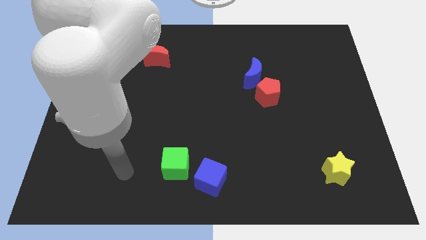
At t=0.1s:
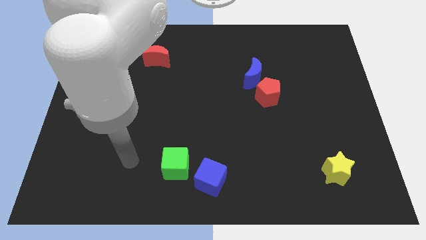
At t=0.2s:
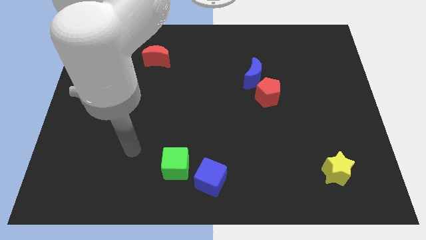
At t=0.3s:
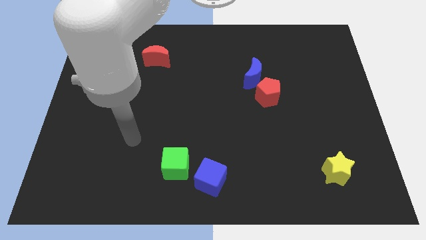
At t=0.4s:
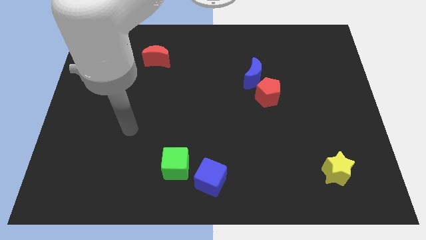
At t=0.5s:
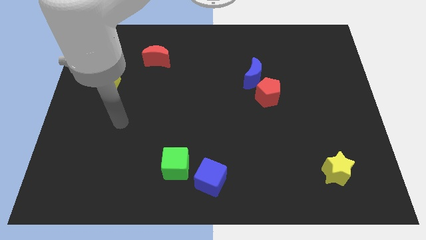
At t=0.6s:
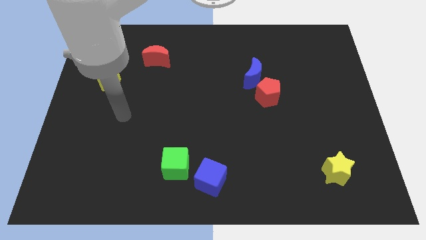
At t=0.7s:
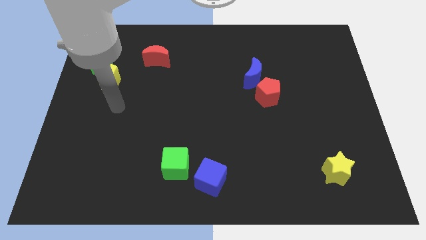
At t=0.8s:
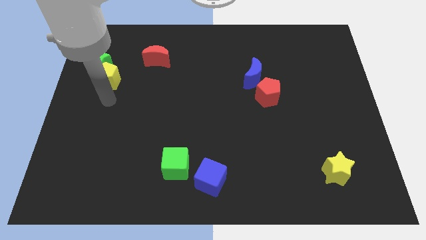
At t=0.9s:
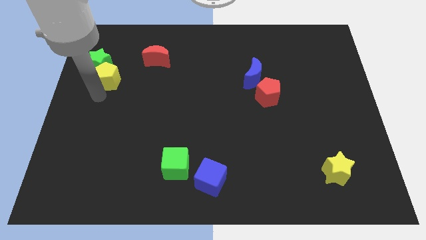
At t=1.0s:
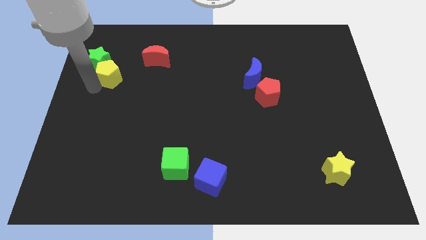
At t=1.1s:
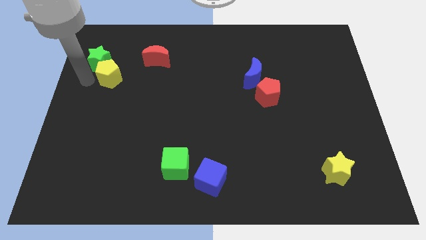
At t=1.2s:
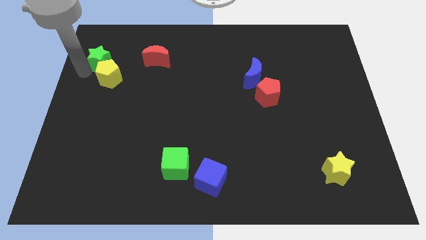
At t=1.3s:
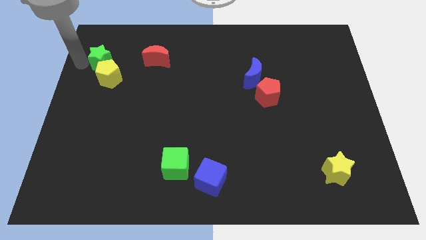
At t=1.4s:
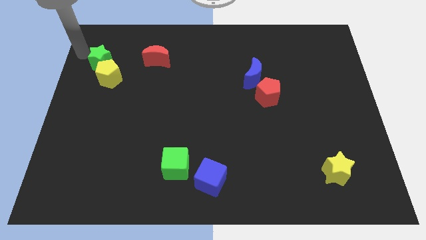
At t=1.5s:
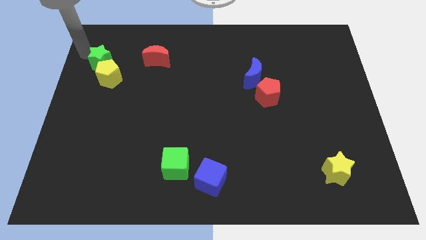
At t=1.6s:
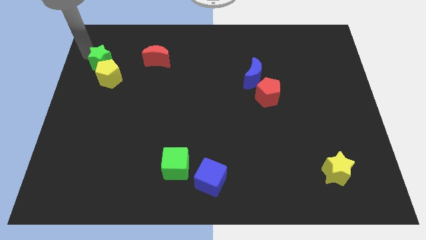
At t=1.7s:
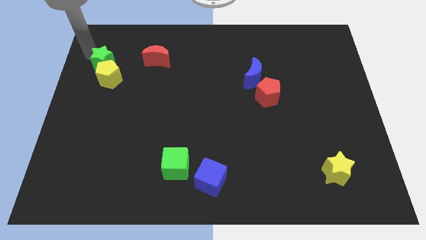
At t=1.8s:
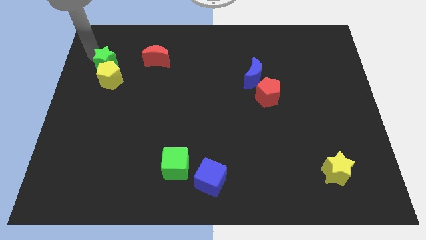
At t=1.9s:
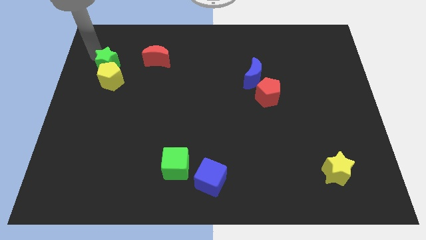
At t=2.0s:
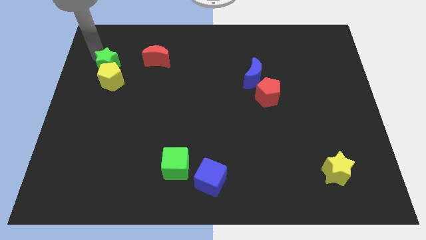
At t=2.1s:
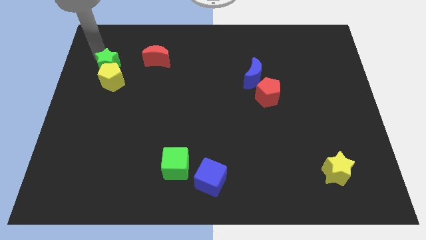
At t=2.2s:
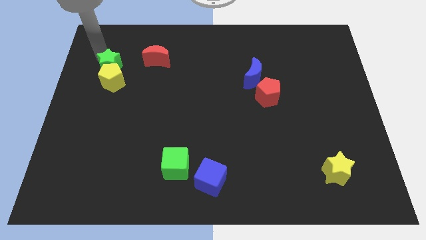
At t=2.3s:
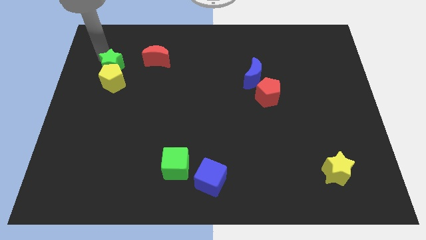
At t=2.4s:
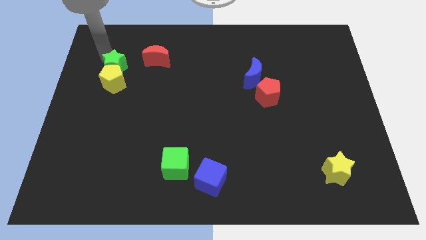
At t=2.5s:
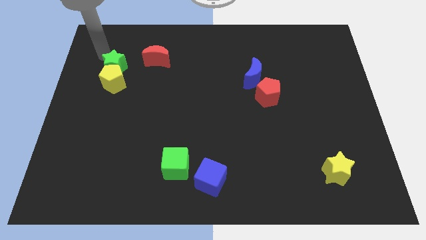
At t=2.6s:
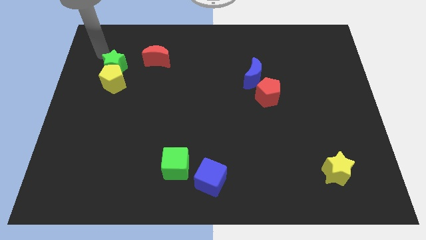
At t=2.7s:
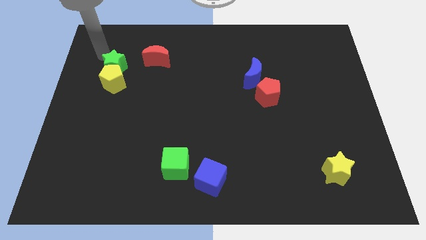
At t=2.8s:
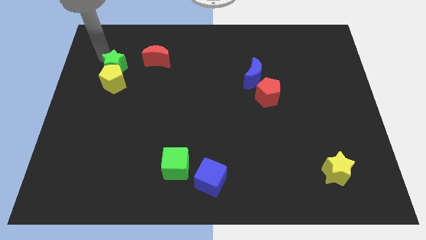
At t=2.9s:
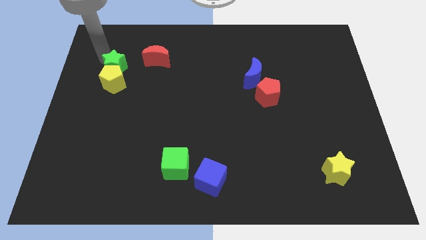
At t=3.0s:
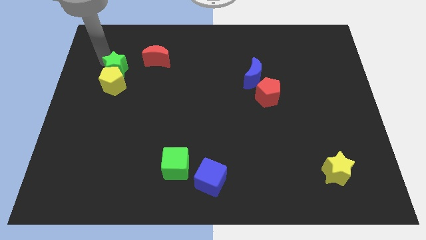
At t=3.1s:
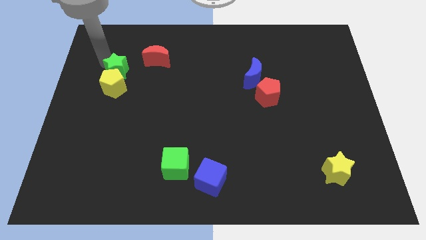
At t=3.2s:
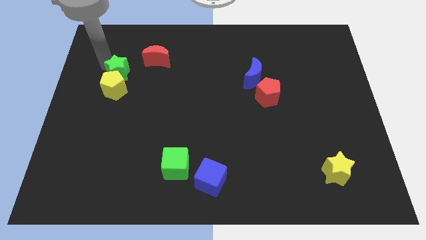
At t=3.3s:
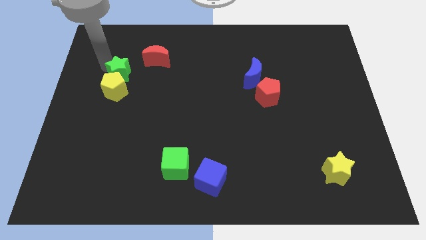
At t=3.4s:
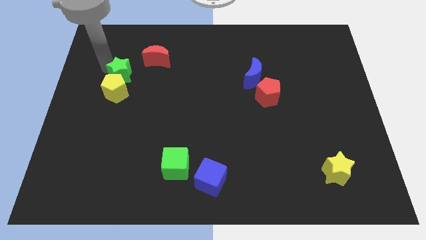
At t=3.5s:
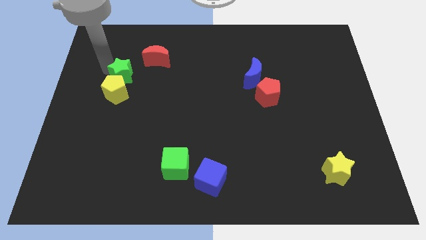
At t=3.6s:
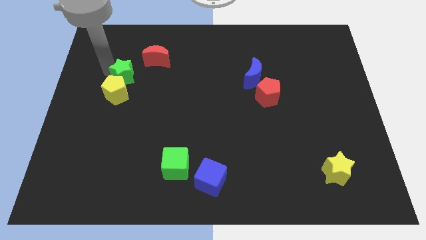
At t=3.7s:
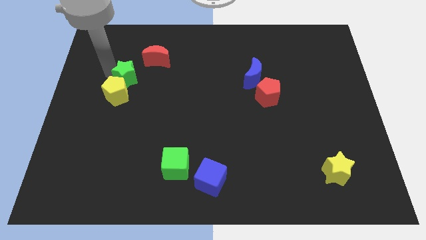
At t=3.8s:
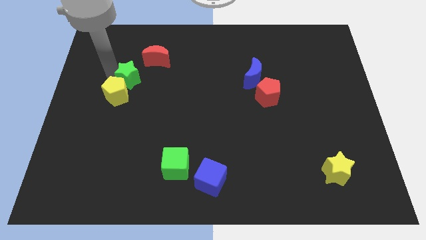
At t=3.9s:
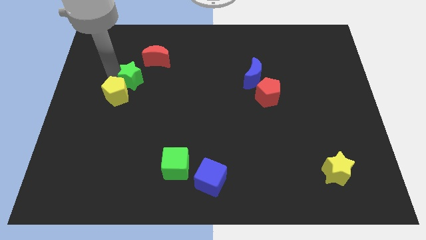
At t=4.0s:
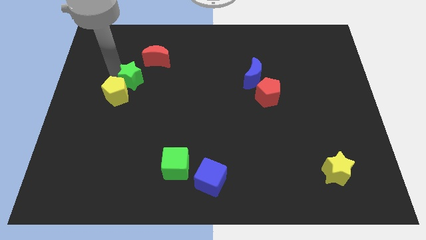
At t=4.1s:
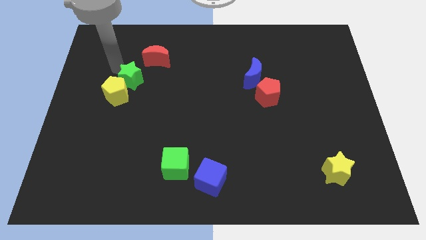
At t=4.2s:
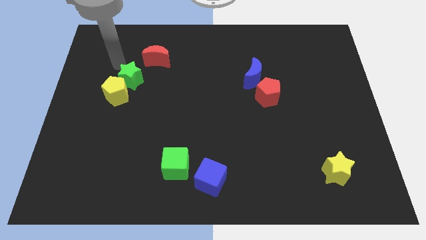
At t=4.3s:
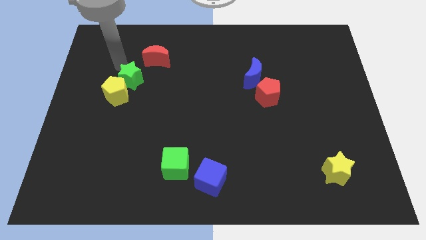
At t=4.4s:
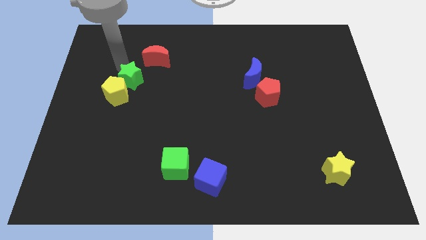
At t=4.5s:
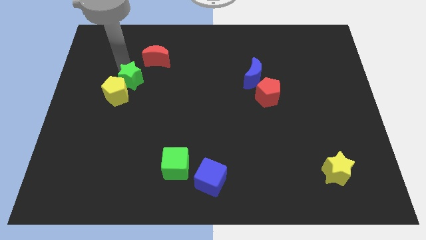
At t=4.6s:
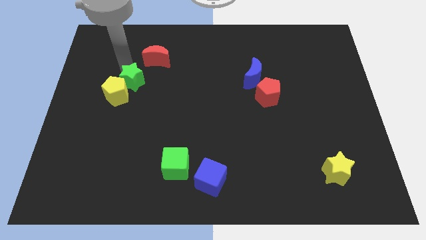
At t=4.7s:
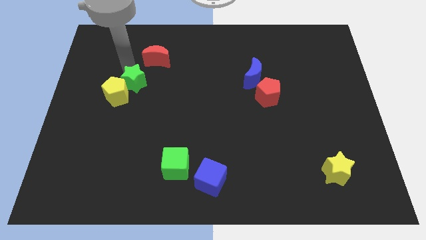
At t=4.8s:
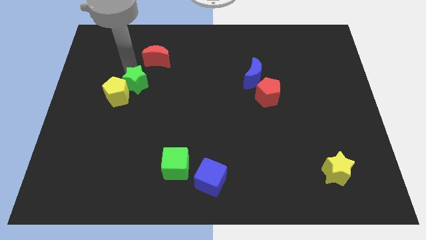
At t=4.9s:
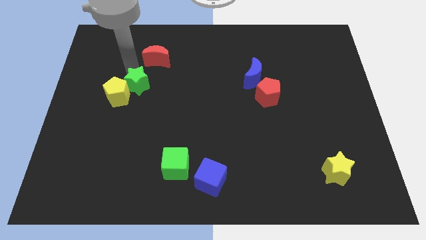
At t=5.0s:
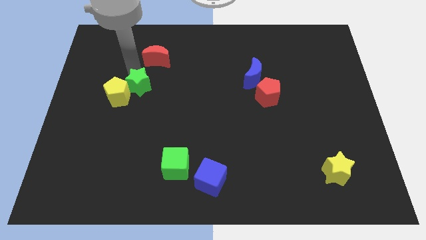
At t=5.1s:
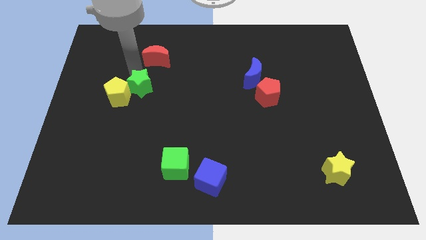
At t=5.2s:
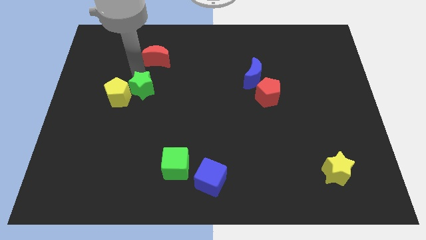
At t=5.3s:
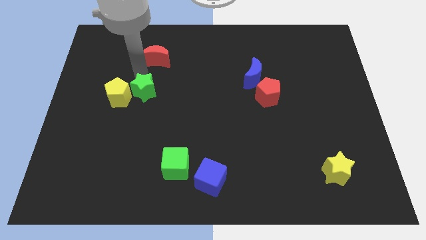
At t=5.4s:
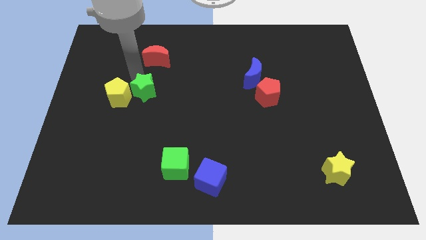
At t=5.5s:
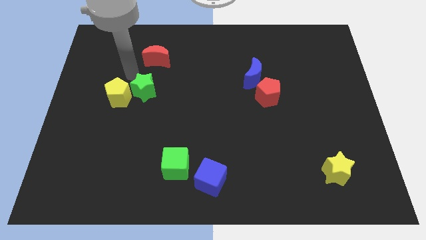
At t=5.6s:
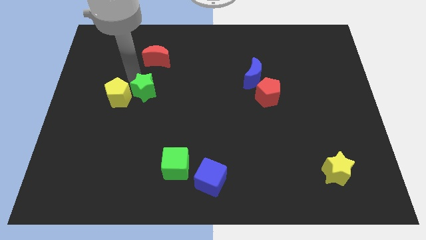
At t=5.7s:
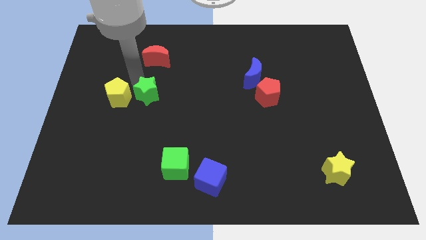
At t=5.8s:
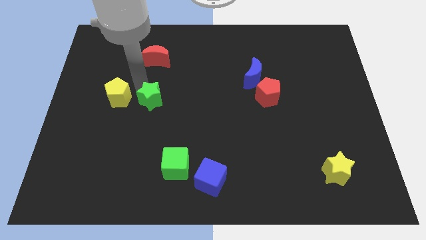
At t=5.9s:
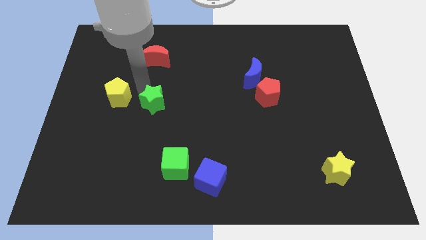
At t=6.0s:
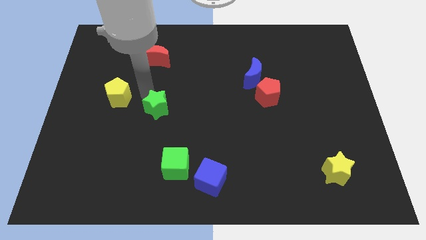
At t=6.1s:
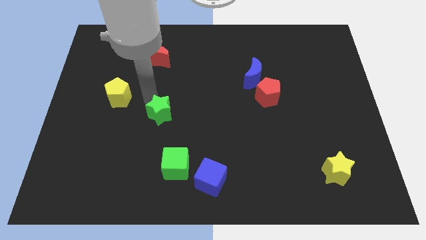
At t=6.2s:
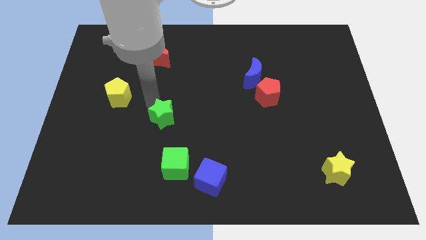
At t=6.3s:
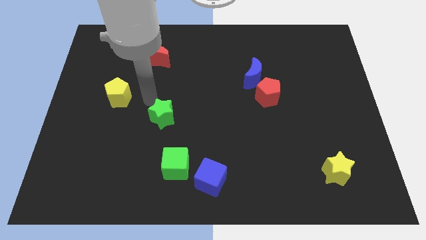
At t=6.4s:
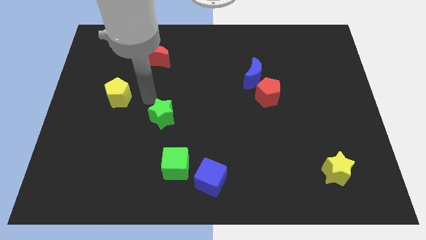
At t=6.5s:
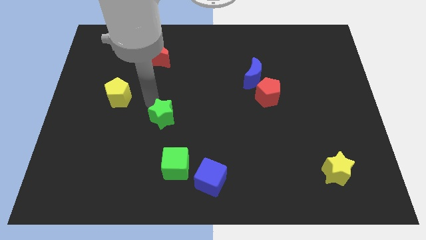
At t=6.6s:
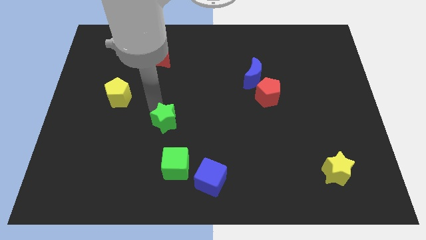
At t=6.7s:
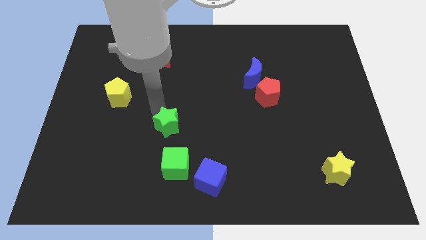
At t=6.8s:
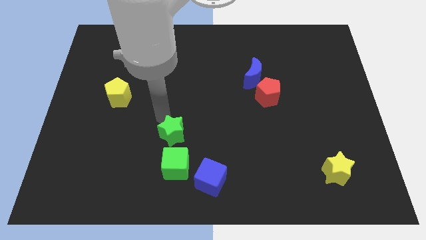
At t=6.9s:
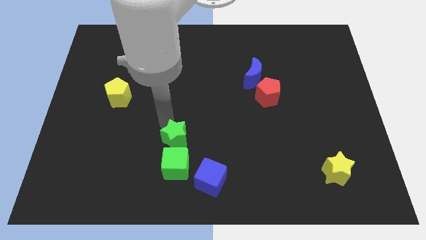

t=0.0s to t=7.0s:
move the green star to the top left of the blue cube
